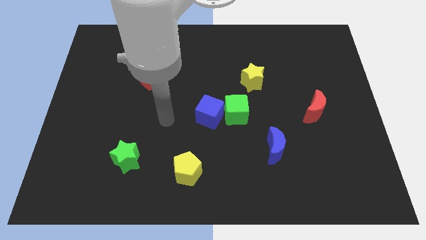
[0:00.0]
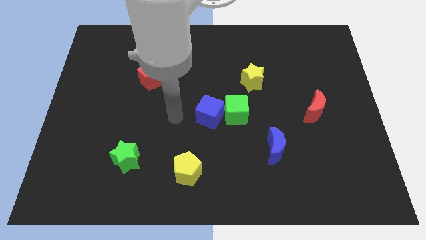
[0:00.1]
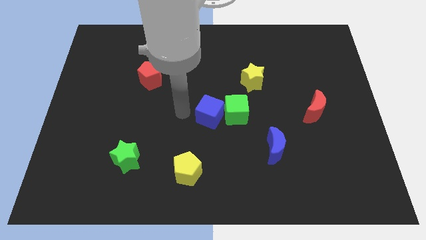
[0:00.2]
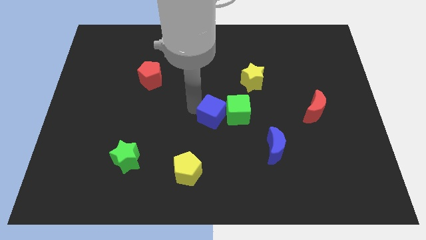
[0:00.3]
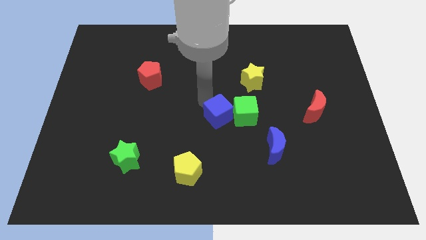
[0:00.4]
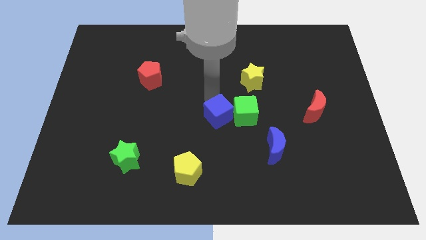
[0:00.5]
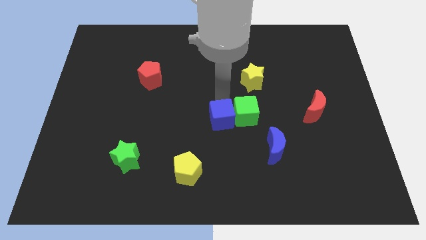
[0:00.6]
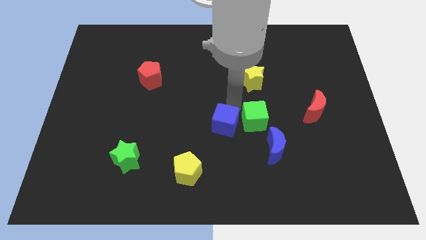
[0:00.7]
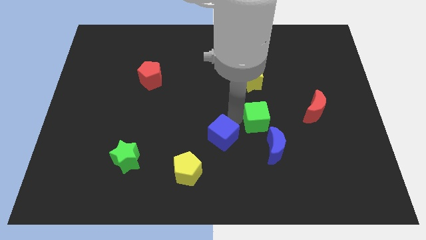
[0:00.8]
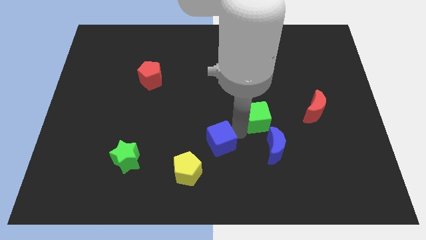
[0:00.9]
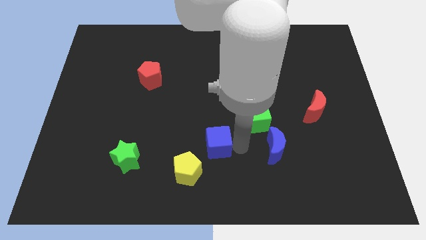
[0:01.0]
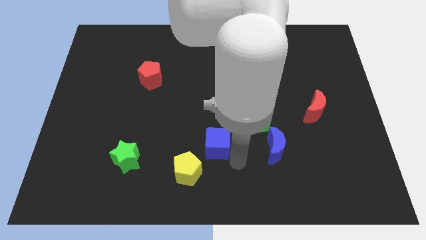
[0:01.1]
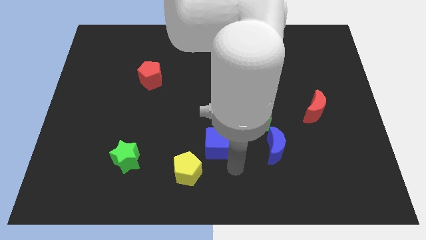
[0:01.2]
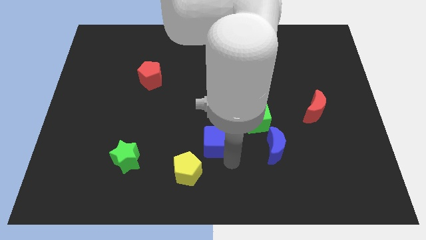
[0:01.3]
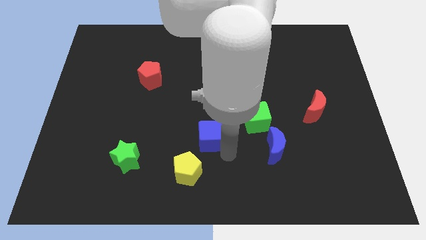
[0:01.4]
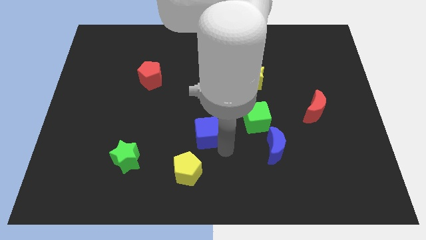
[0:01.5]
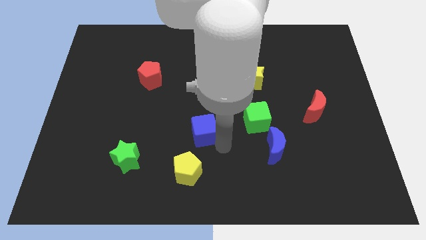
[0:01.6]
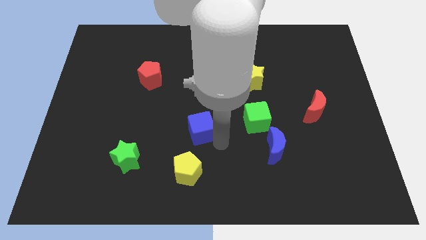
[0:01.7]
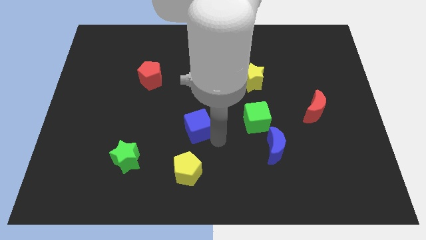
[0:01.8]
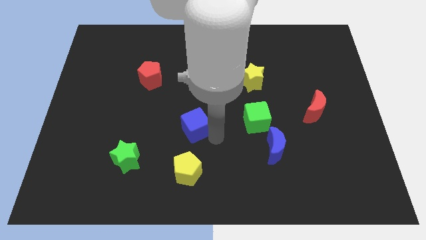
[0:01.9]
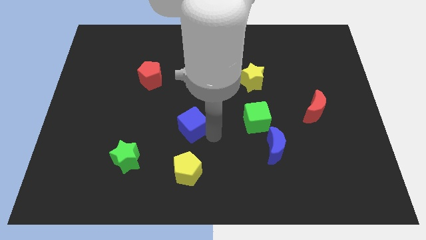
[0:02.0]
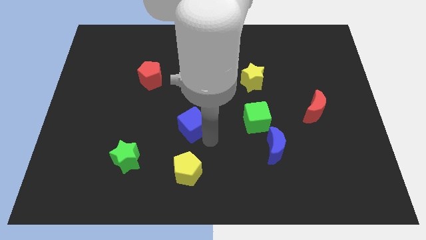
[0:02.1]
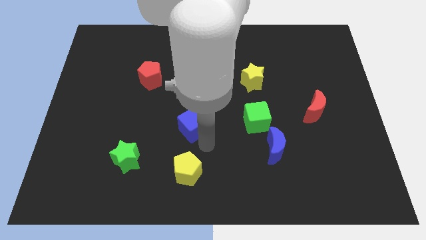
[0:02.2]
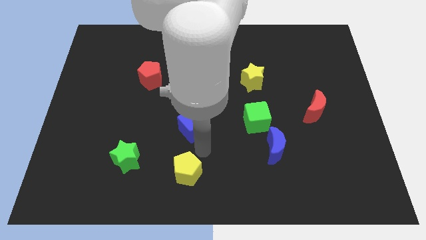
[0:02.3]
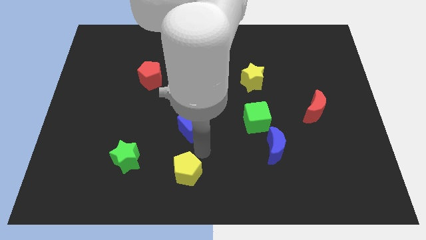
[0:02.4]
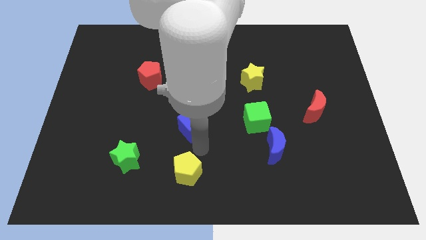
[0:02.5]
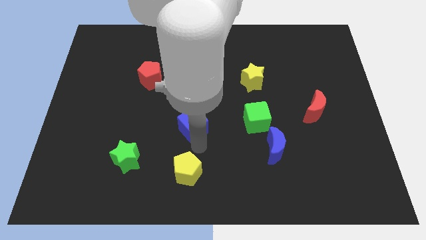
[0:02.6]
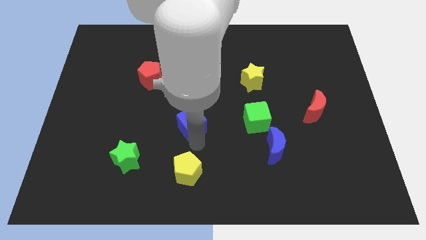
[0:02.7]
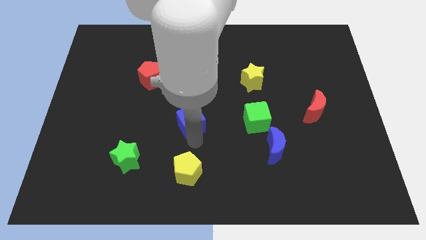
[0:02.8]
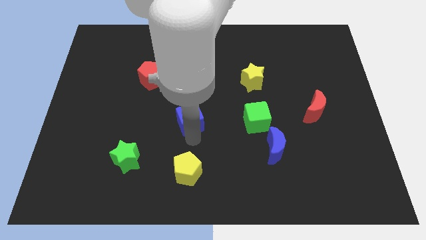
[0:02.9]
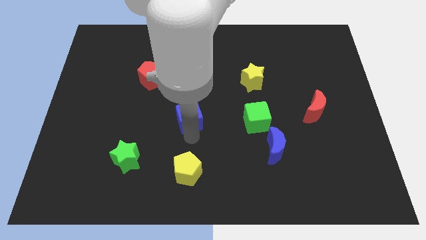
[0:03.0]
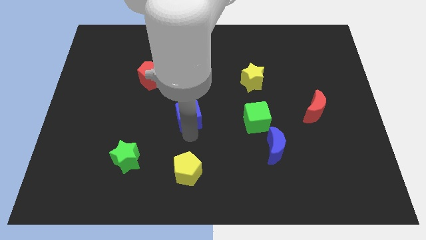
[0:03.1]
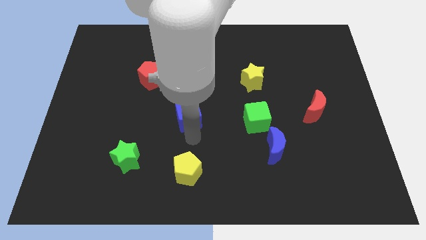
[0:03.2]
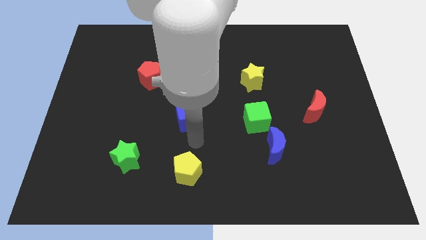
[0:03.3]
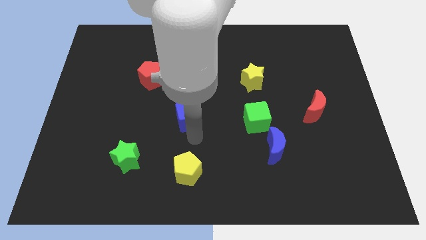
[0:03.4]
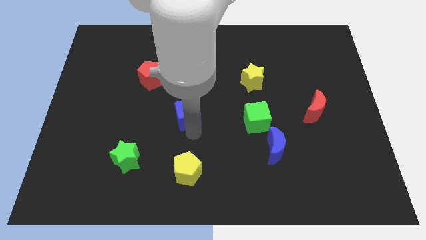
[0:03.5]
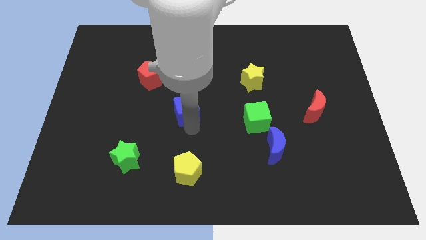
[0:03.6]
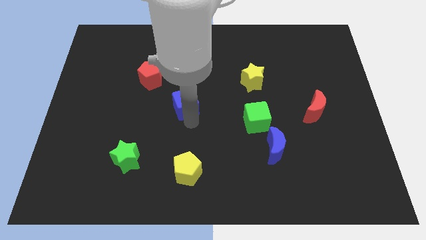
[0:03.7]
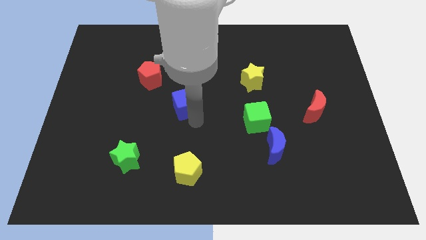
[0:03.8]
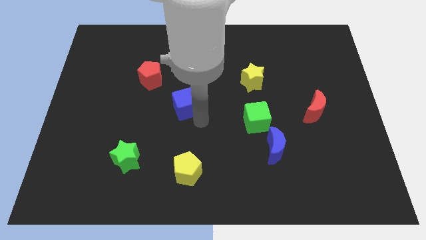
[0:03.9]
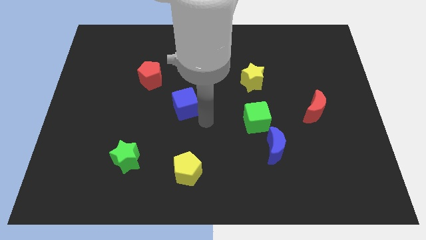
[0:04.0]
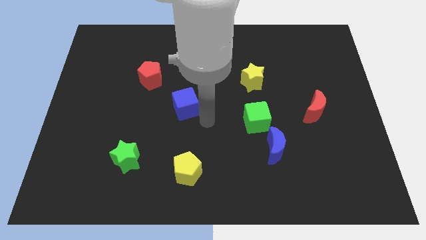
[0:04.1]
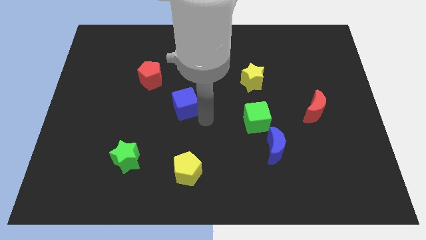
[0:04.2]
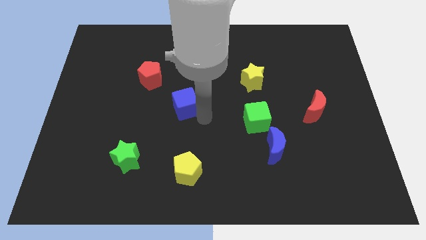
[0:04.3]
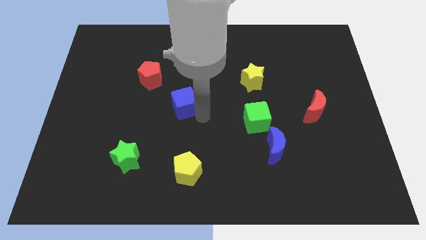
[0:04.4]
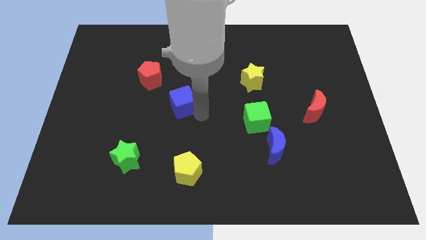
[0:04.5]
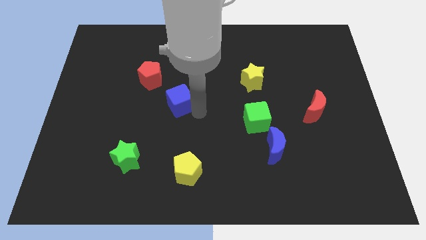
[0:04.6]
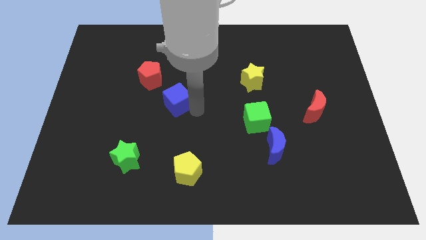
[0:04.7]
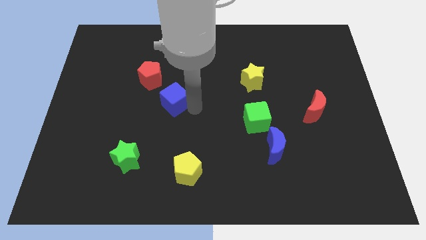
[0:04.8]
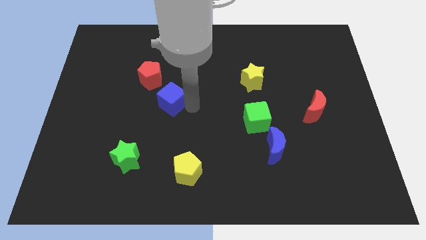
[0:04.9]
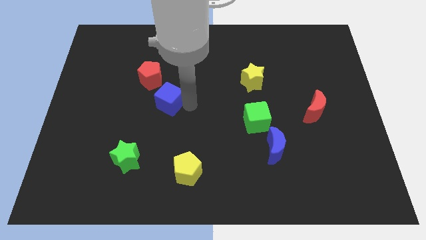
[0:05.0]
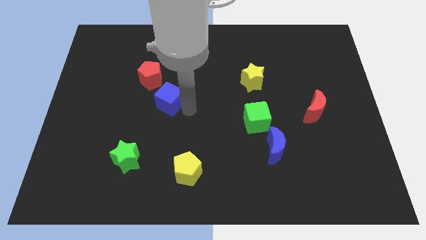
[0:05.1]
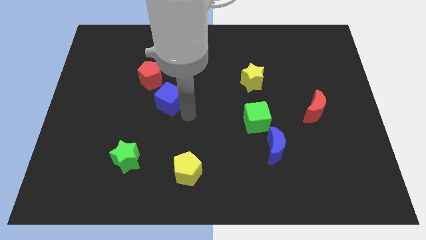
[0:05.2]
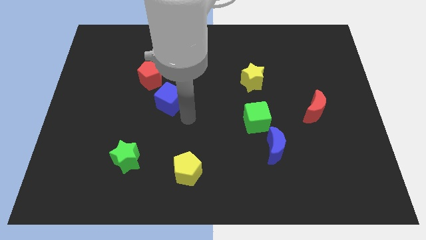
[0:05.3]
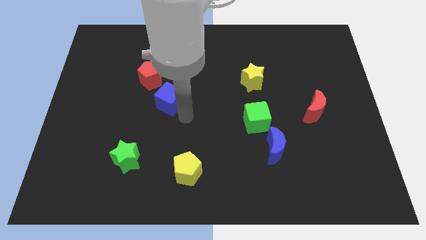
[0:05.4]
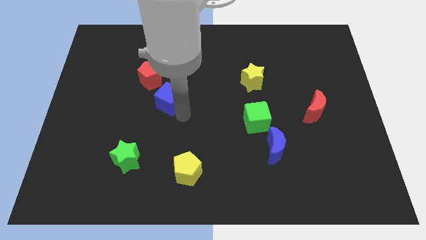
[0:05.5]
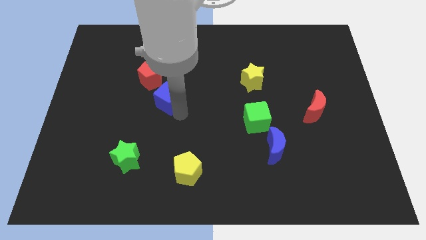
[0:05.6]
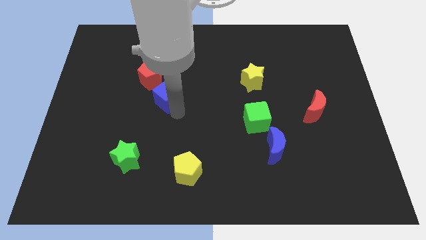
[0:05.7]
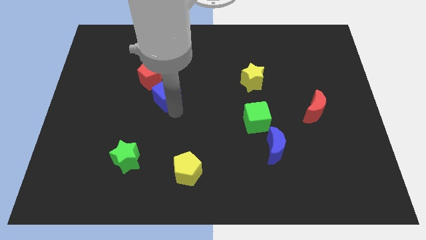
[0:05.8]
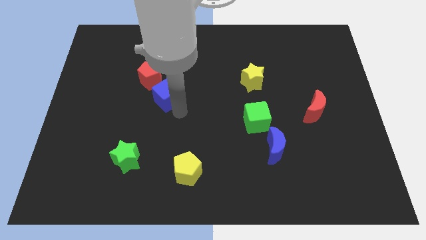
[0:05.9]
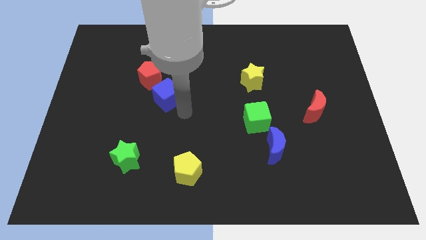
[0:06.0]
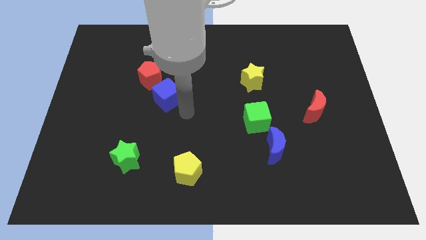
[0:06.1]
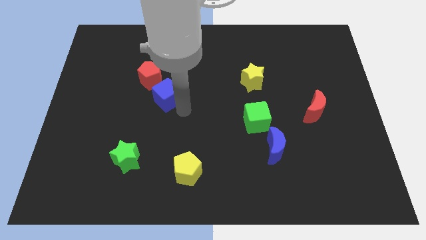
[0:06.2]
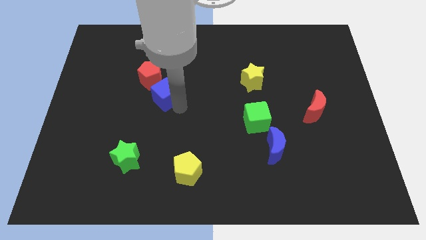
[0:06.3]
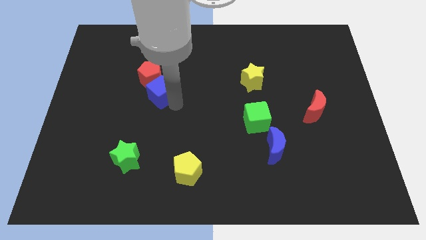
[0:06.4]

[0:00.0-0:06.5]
push the blue cube next to the red pentagon
